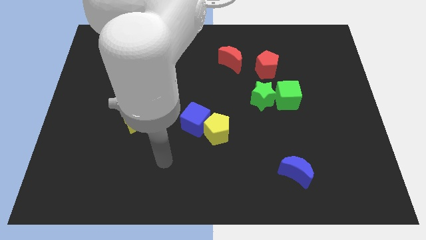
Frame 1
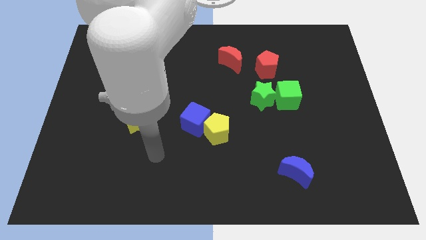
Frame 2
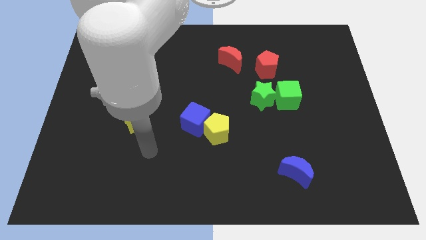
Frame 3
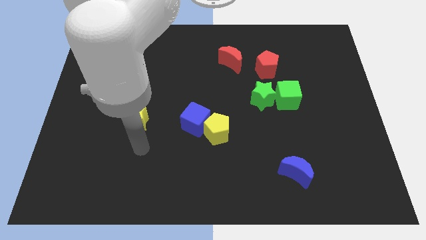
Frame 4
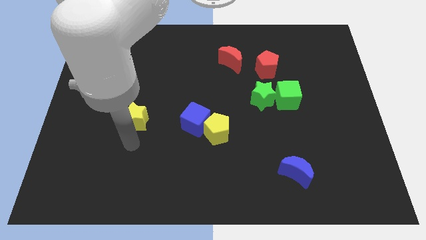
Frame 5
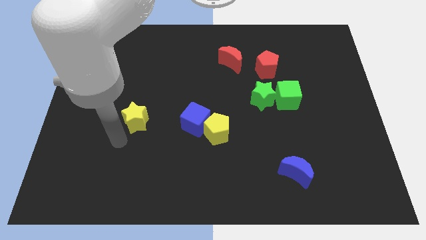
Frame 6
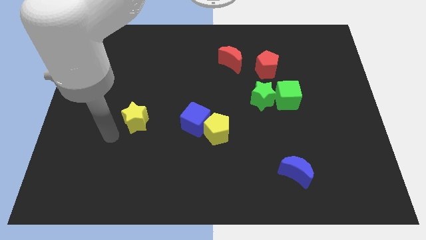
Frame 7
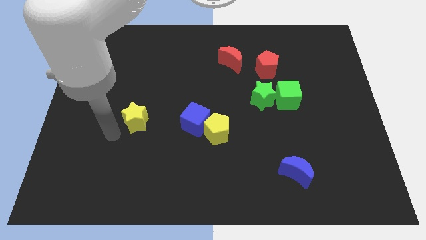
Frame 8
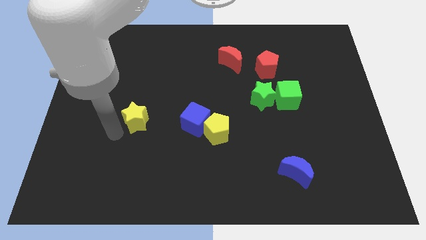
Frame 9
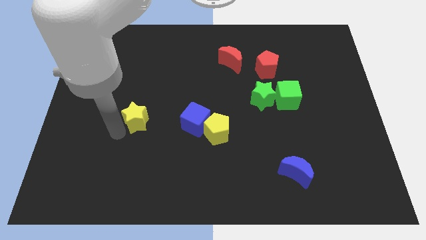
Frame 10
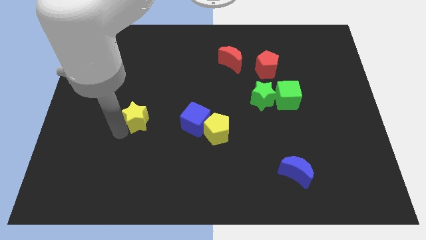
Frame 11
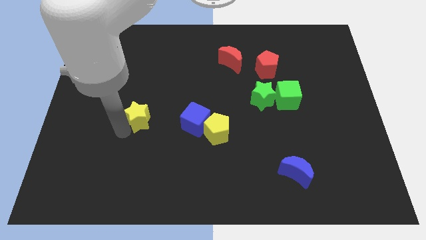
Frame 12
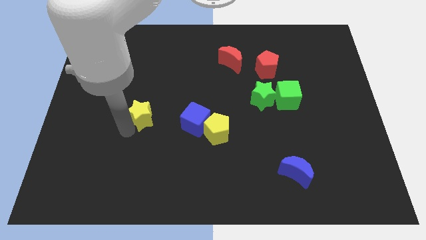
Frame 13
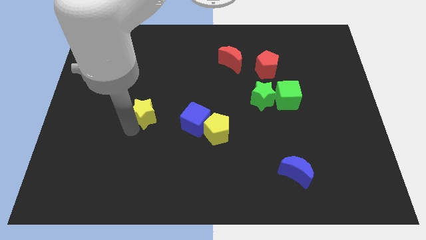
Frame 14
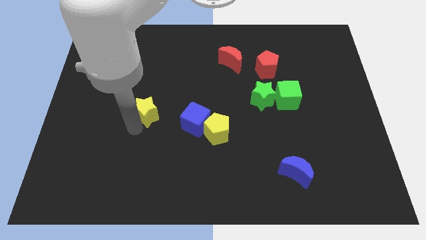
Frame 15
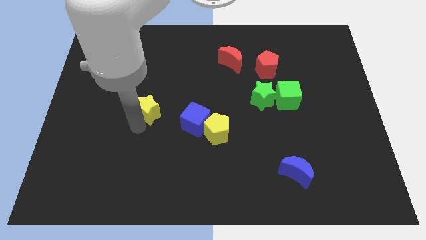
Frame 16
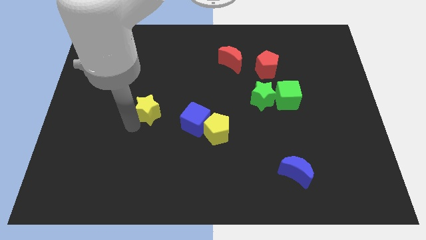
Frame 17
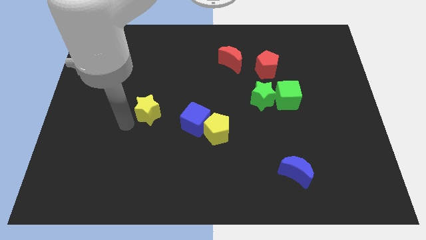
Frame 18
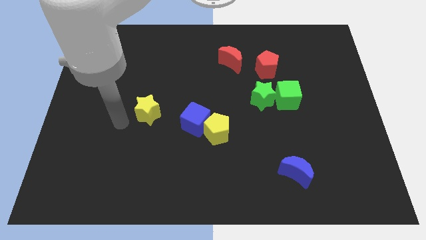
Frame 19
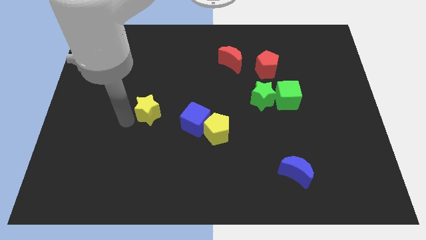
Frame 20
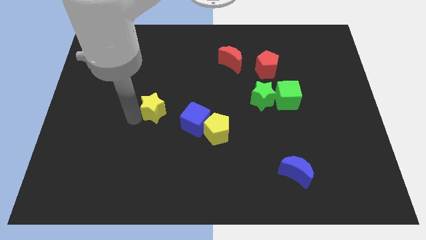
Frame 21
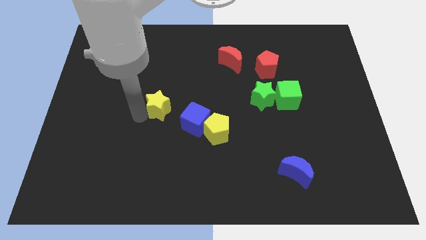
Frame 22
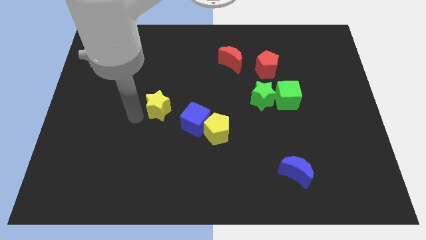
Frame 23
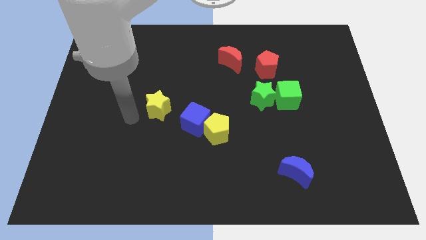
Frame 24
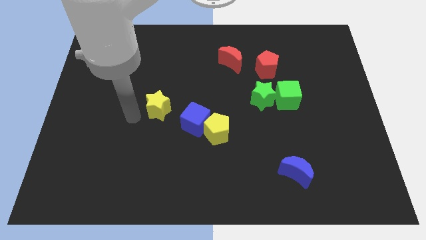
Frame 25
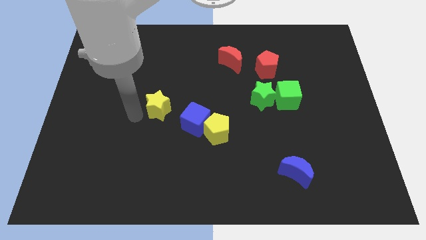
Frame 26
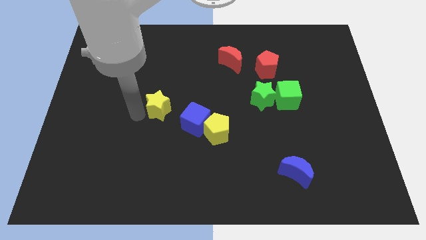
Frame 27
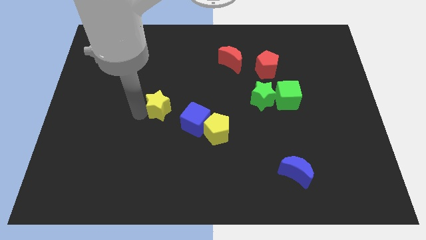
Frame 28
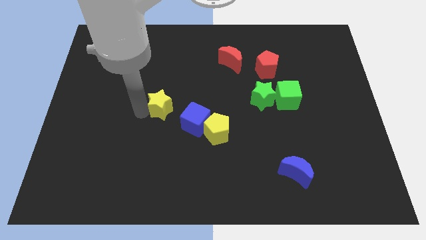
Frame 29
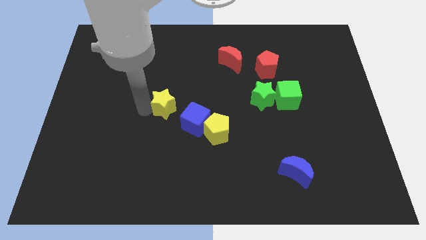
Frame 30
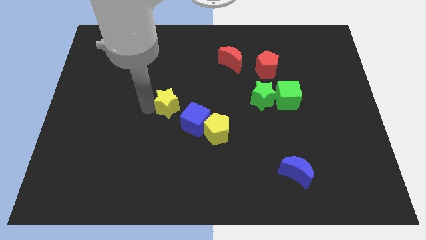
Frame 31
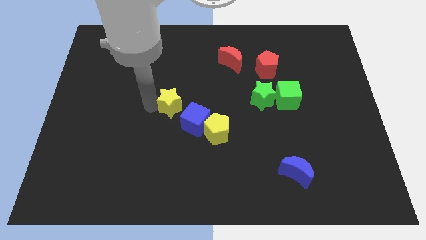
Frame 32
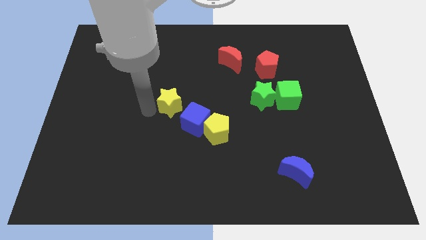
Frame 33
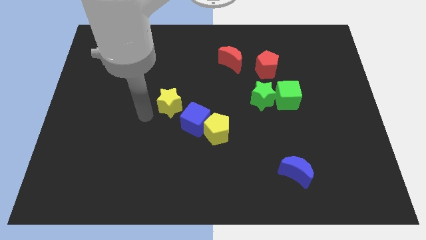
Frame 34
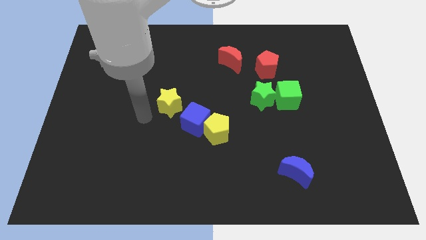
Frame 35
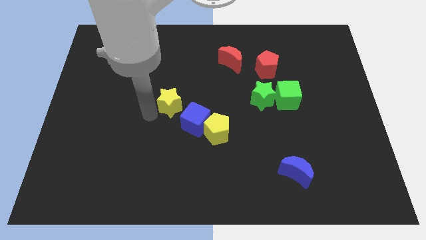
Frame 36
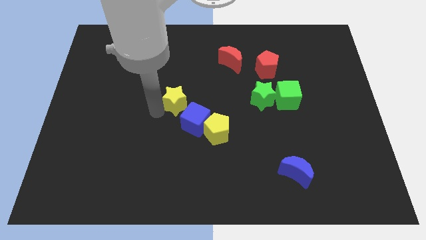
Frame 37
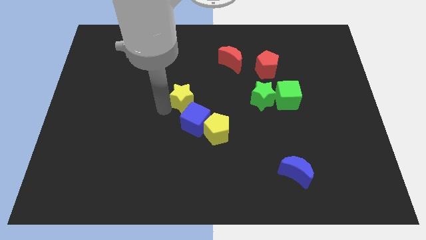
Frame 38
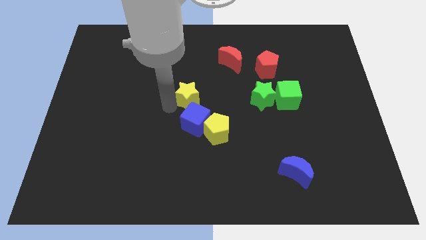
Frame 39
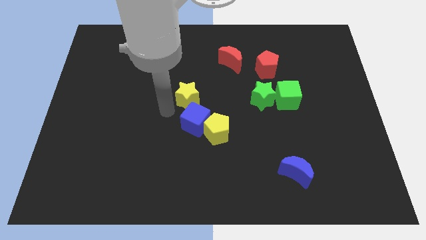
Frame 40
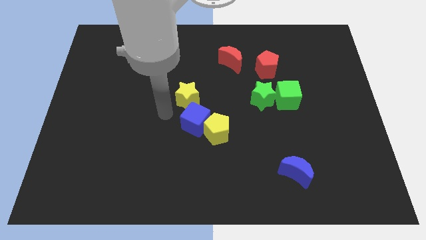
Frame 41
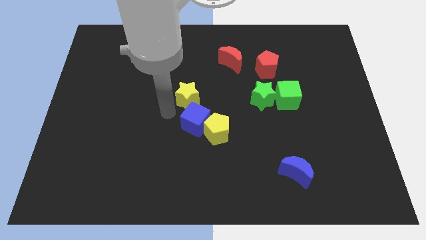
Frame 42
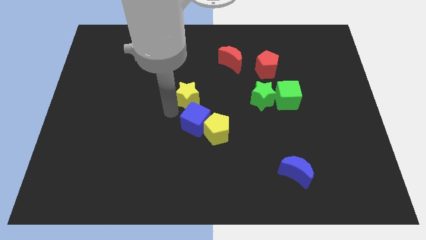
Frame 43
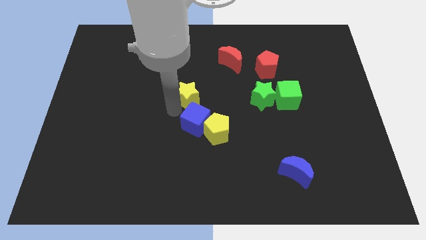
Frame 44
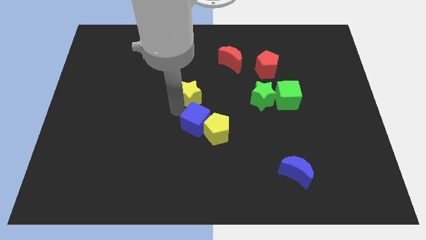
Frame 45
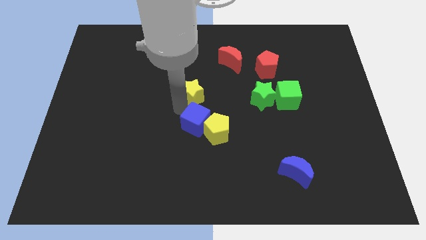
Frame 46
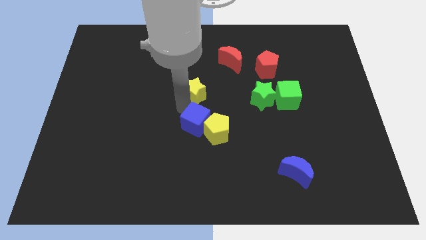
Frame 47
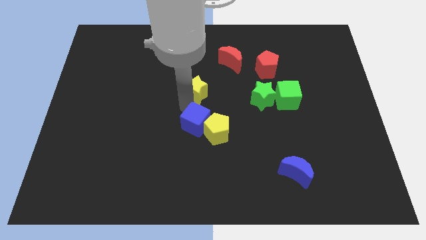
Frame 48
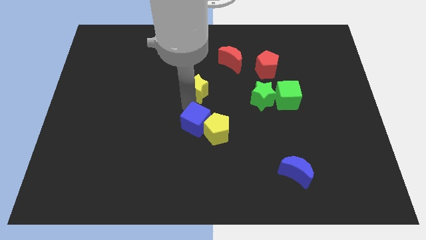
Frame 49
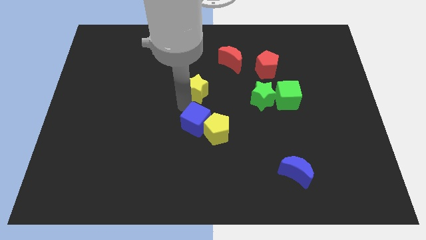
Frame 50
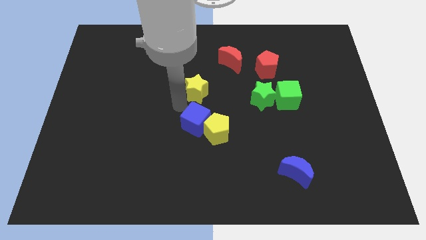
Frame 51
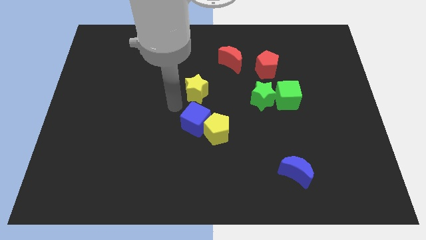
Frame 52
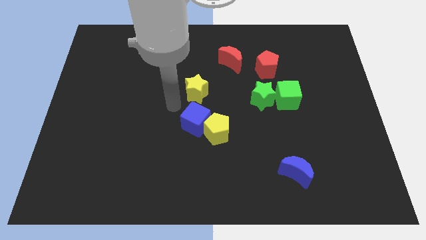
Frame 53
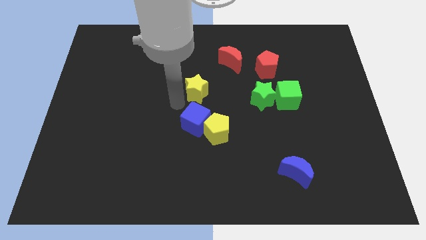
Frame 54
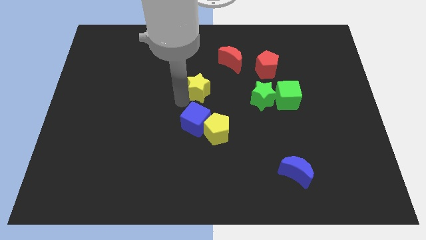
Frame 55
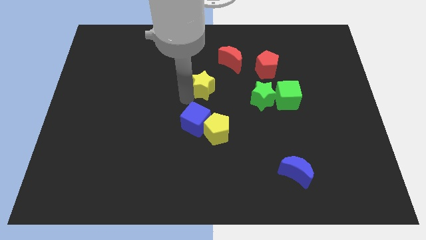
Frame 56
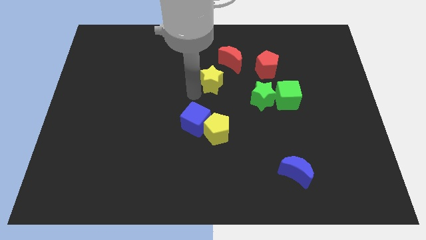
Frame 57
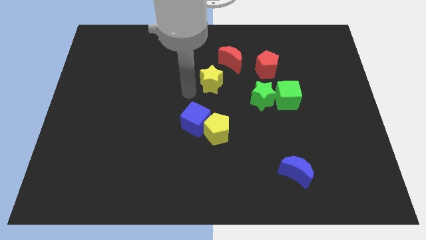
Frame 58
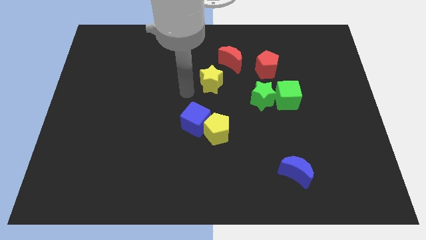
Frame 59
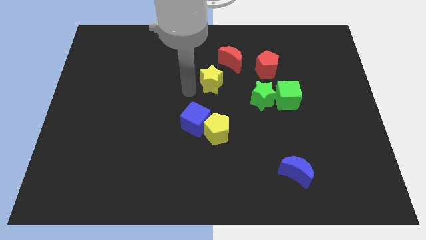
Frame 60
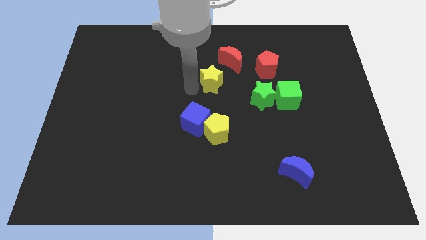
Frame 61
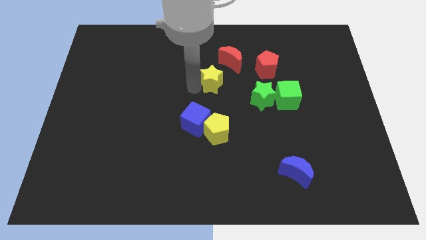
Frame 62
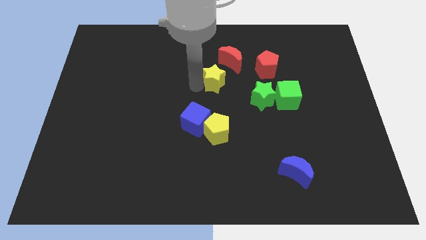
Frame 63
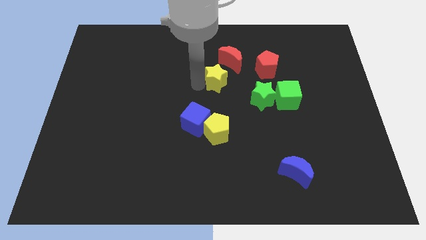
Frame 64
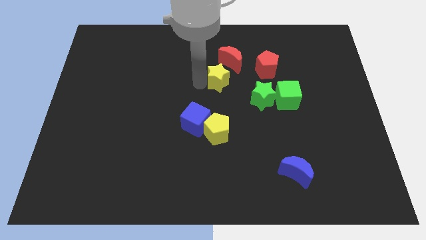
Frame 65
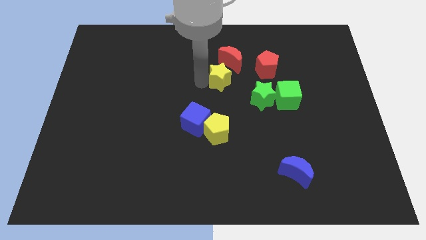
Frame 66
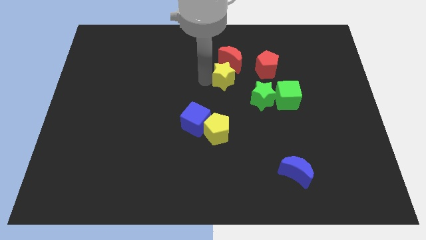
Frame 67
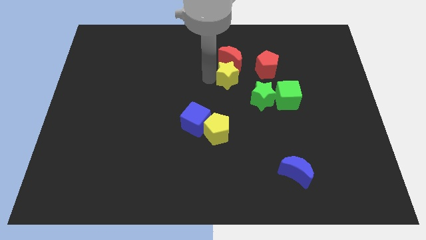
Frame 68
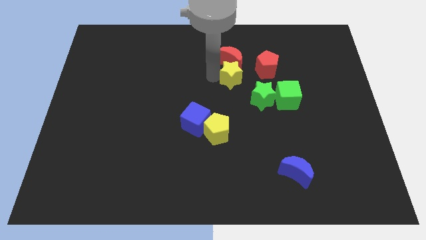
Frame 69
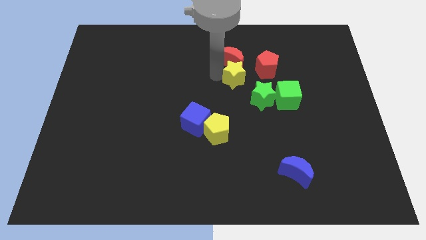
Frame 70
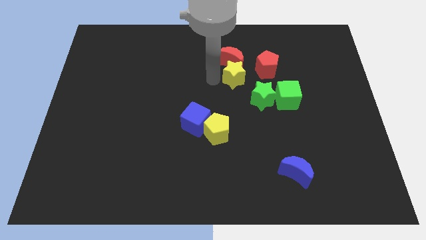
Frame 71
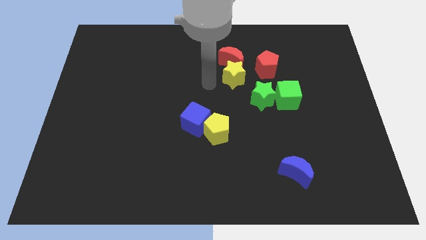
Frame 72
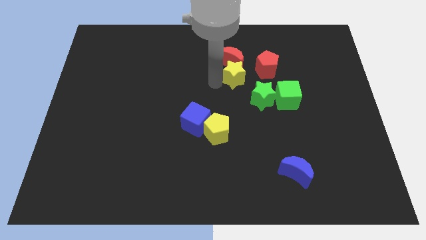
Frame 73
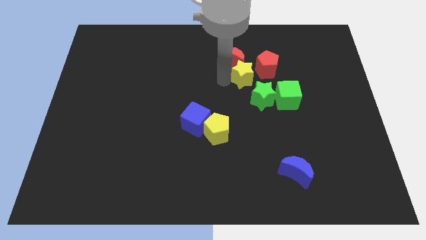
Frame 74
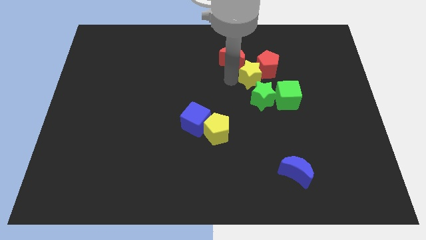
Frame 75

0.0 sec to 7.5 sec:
slide the yellow star towards the red pentagon
